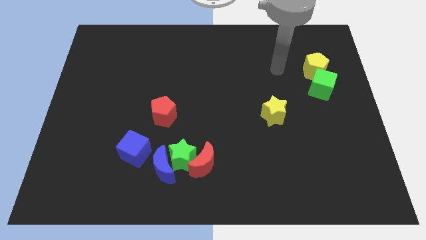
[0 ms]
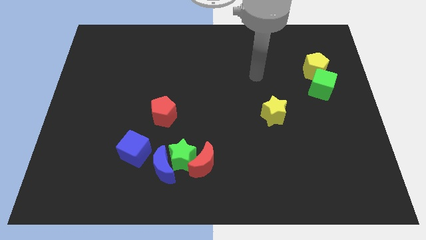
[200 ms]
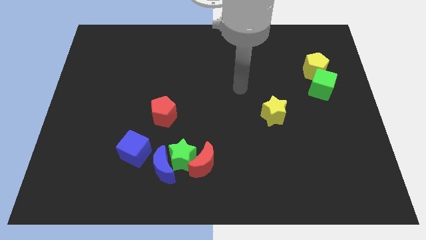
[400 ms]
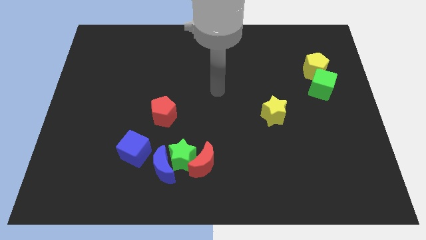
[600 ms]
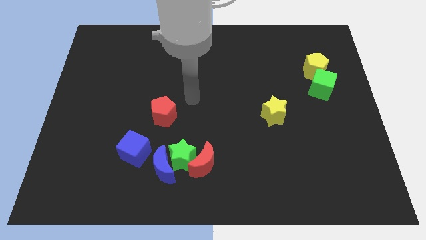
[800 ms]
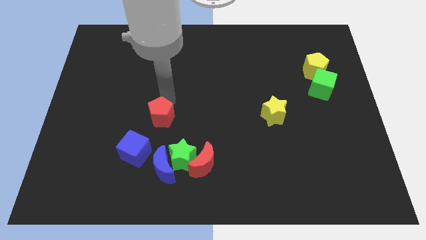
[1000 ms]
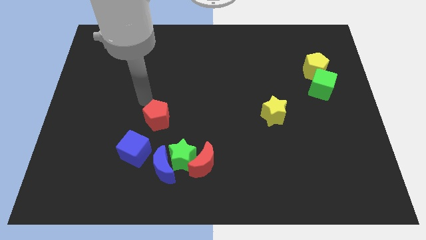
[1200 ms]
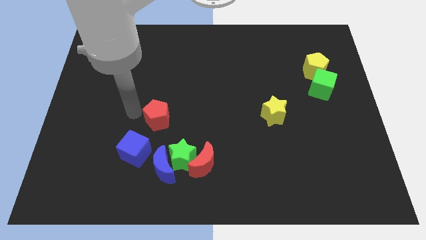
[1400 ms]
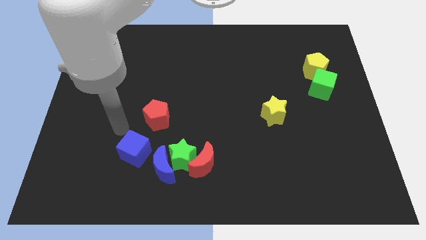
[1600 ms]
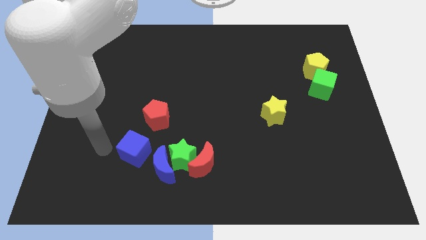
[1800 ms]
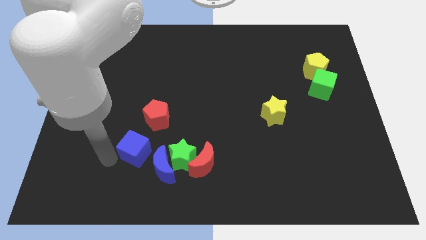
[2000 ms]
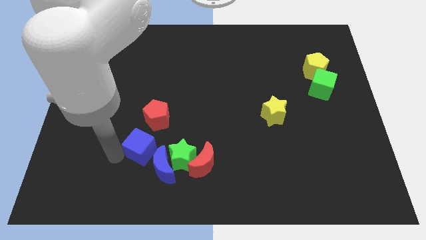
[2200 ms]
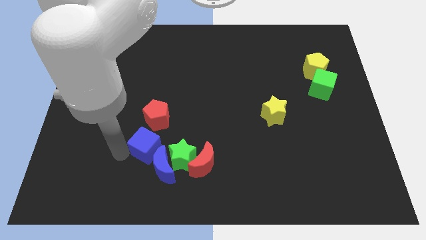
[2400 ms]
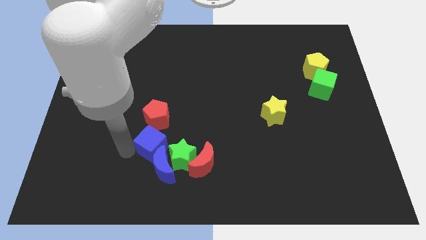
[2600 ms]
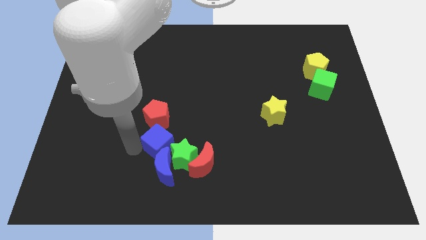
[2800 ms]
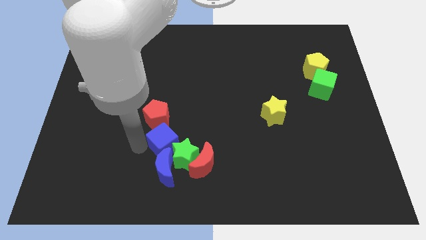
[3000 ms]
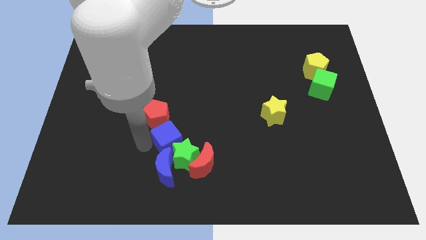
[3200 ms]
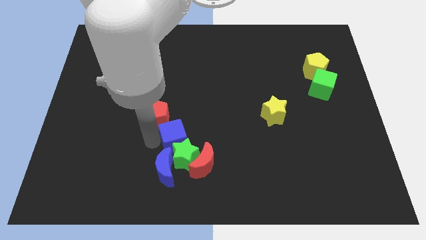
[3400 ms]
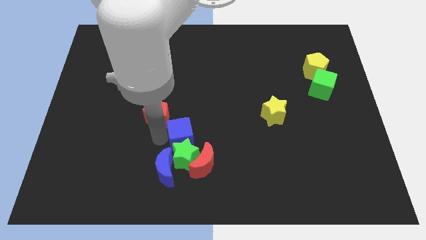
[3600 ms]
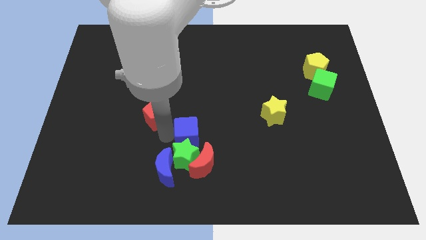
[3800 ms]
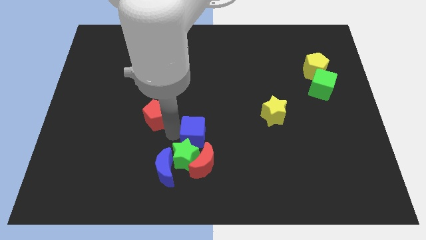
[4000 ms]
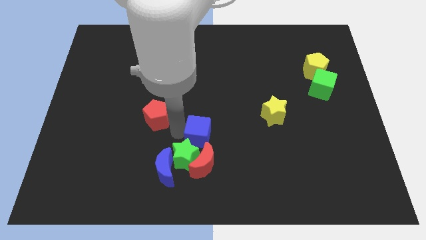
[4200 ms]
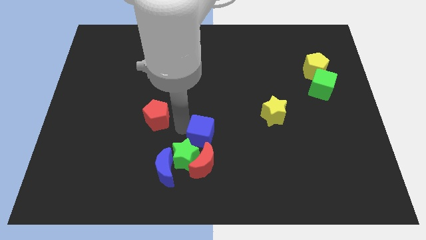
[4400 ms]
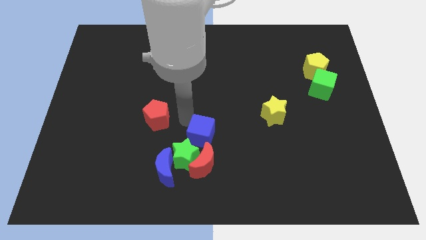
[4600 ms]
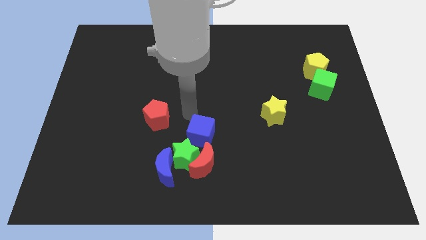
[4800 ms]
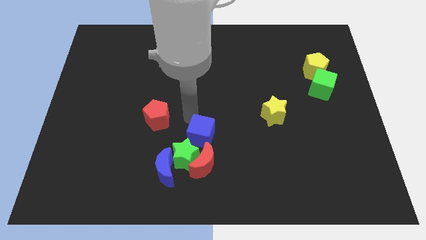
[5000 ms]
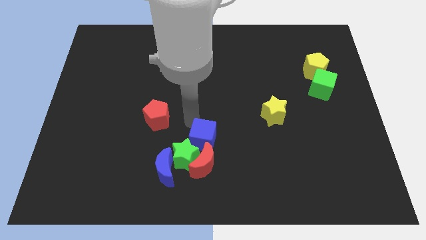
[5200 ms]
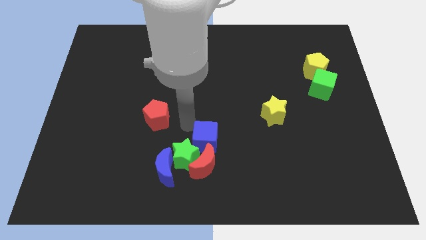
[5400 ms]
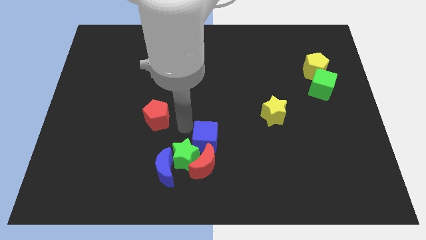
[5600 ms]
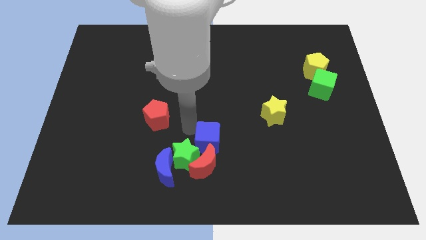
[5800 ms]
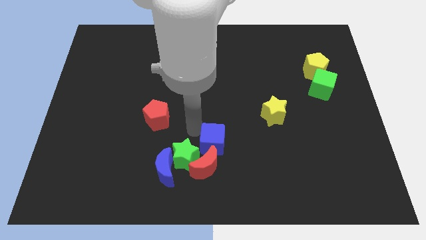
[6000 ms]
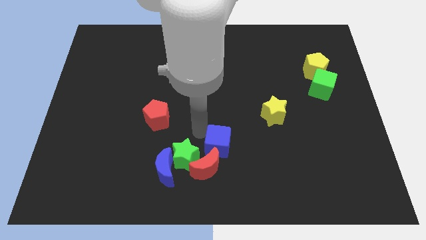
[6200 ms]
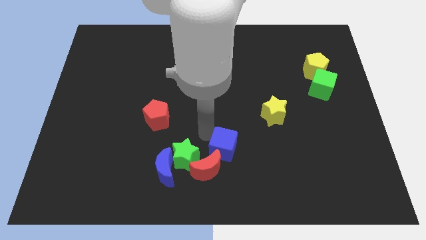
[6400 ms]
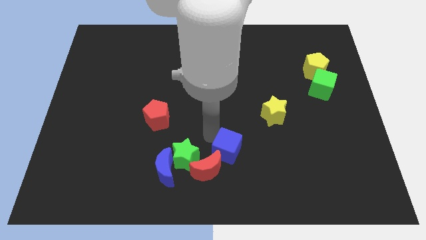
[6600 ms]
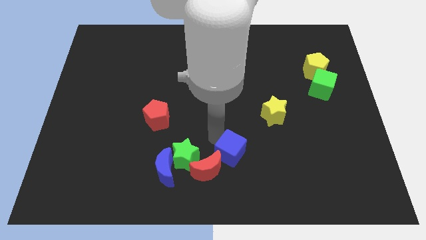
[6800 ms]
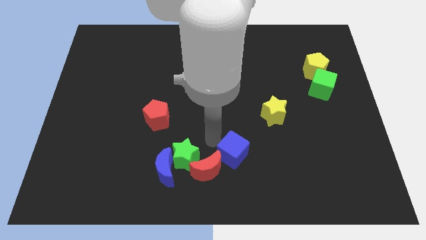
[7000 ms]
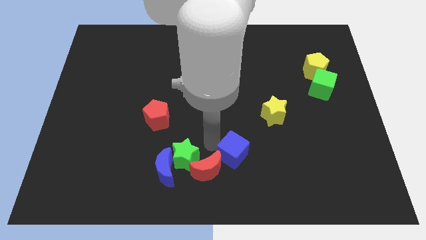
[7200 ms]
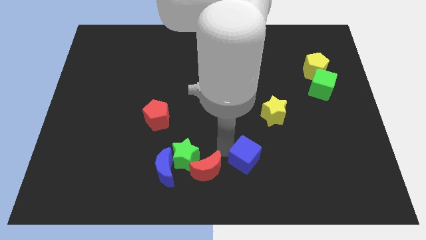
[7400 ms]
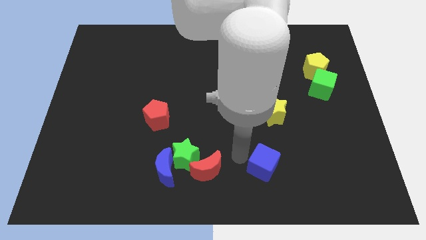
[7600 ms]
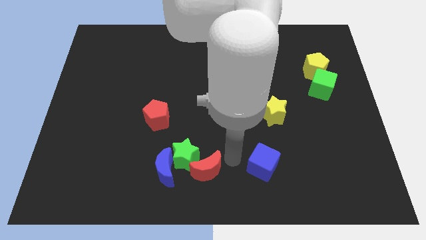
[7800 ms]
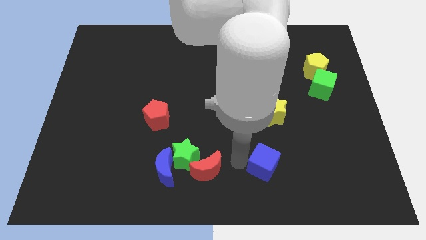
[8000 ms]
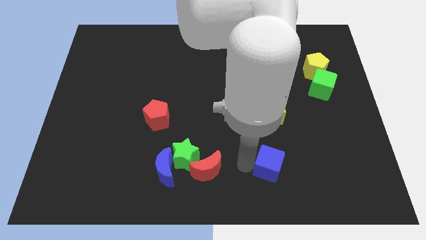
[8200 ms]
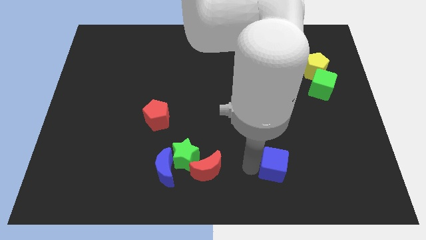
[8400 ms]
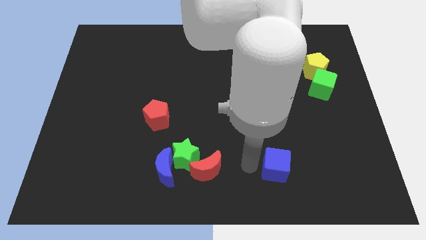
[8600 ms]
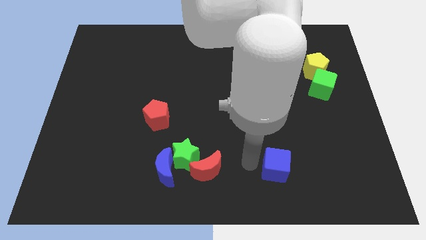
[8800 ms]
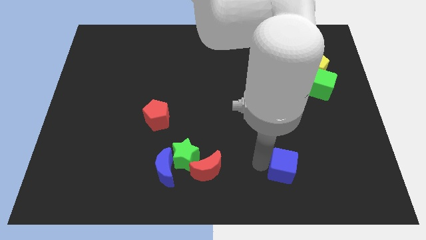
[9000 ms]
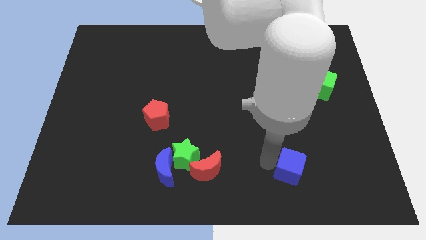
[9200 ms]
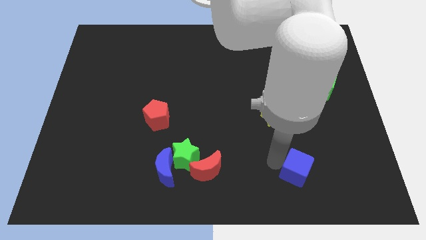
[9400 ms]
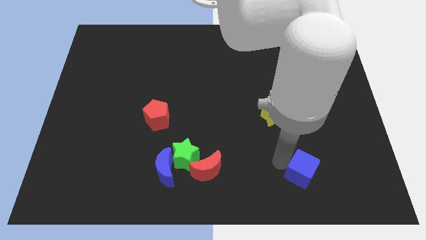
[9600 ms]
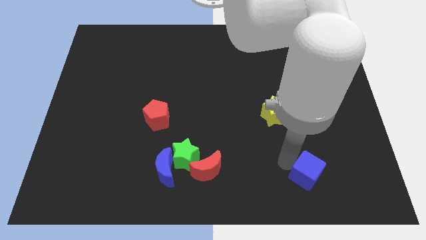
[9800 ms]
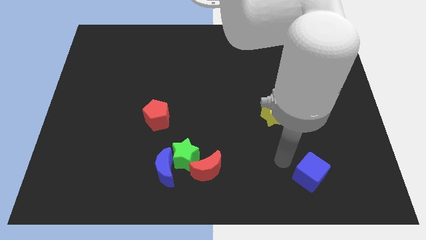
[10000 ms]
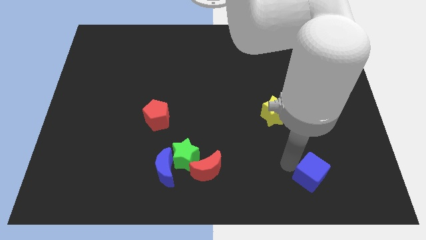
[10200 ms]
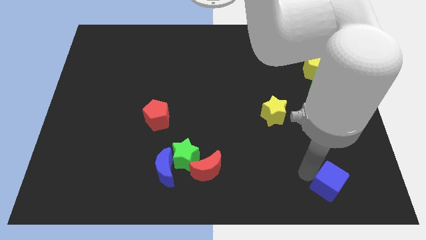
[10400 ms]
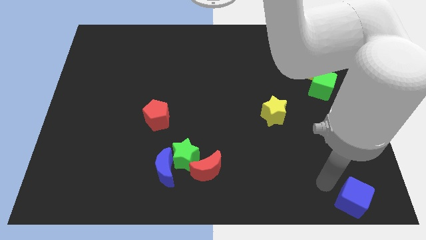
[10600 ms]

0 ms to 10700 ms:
slide the blue cube to the lower right corner
